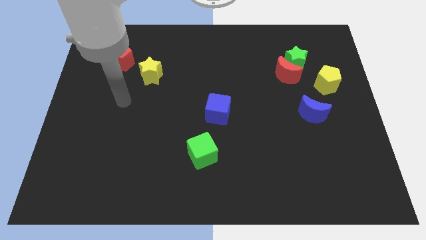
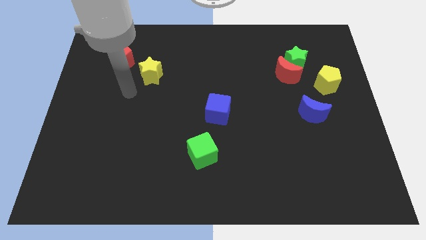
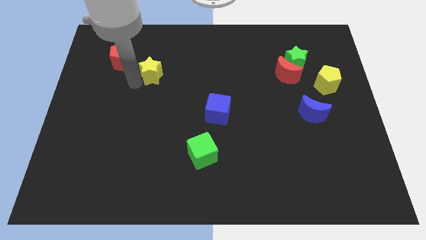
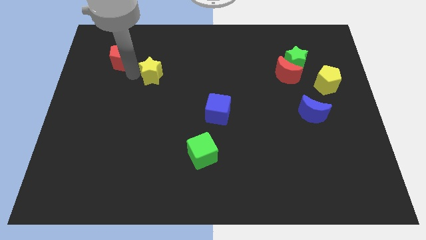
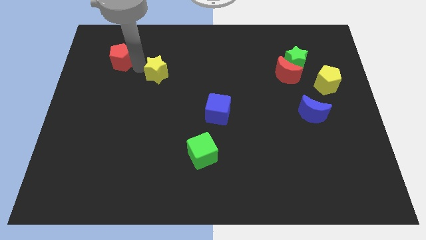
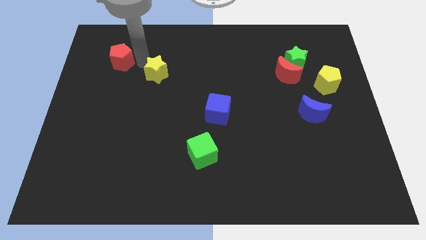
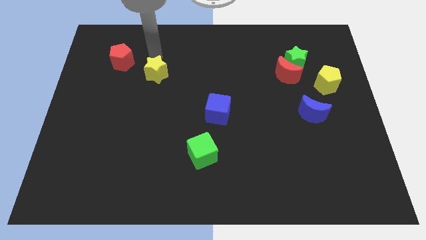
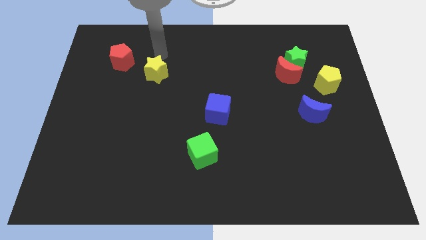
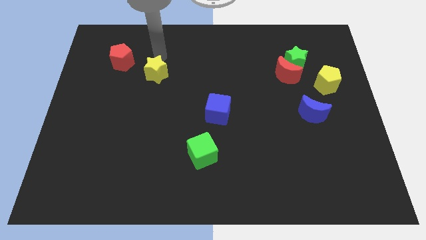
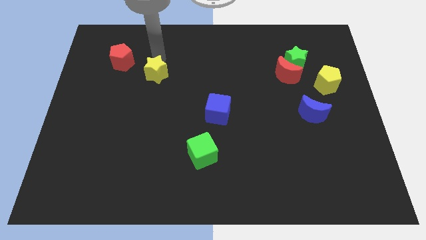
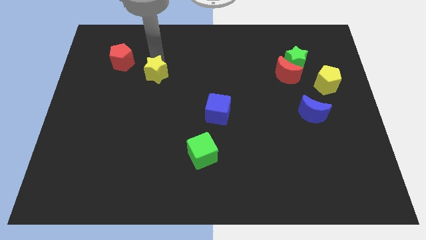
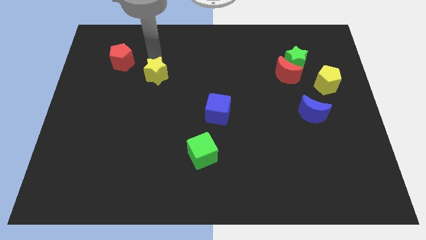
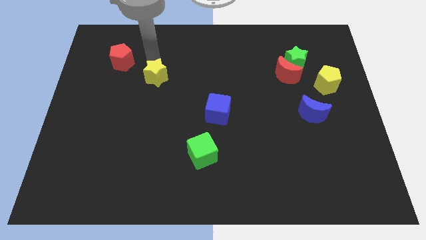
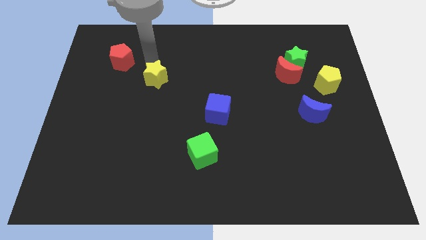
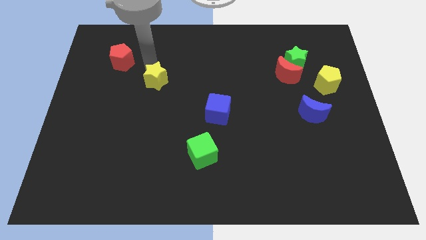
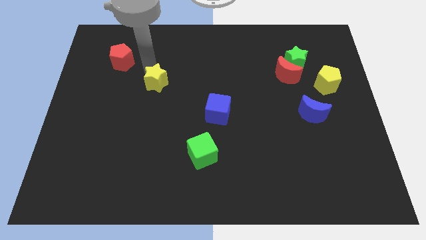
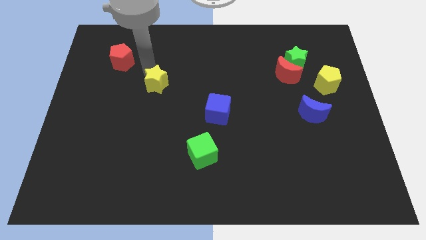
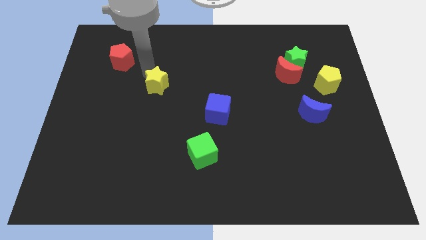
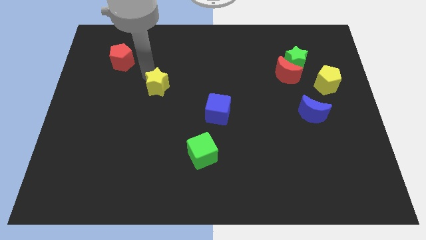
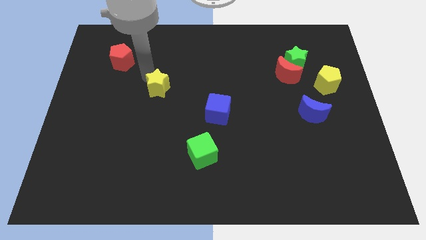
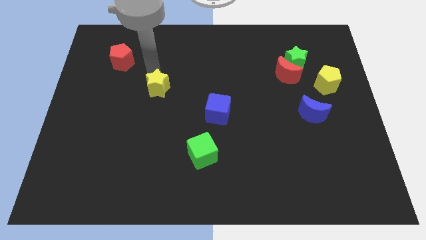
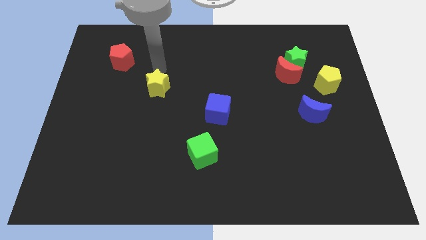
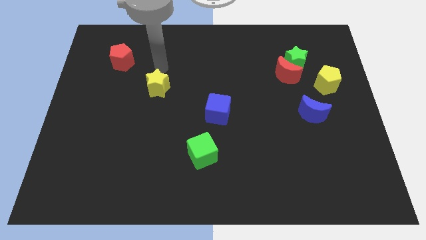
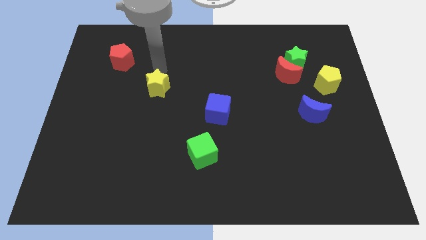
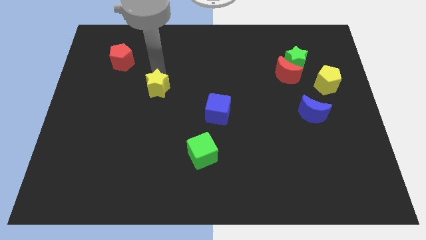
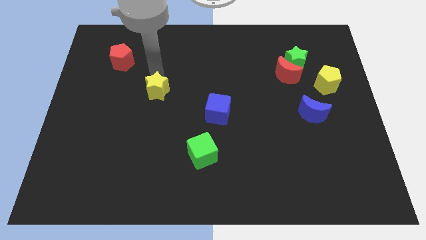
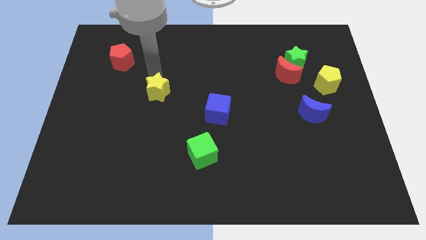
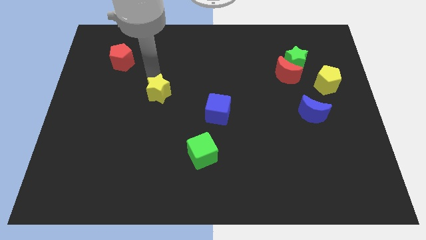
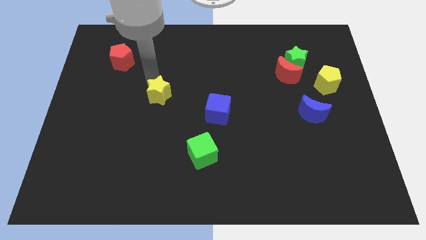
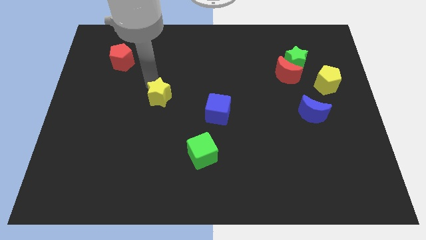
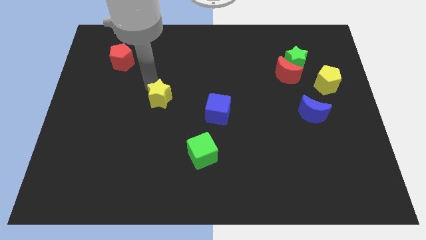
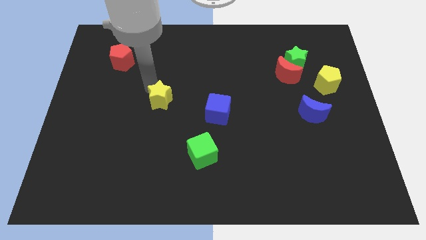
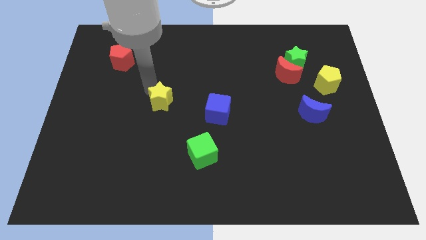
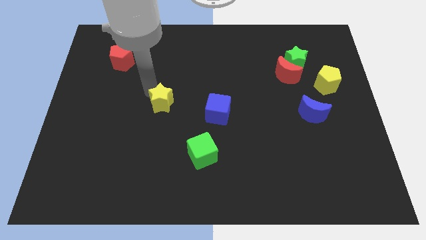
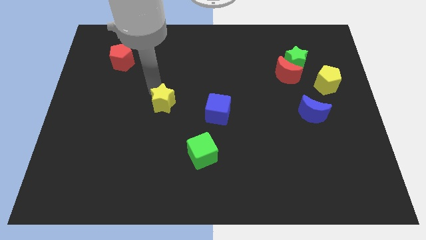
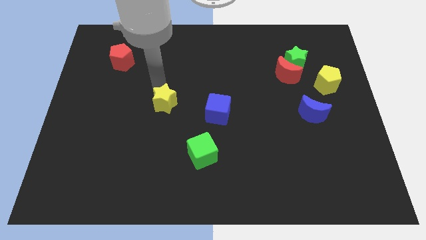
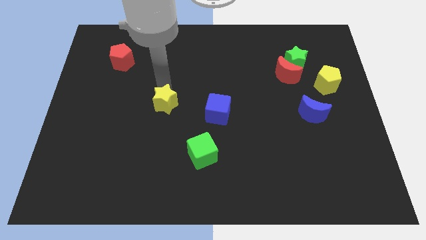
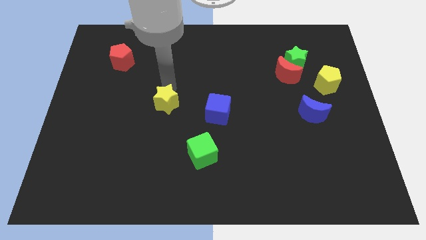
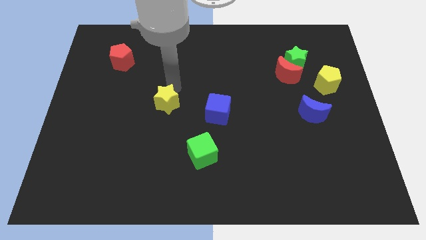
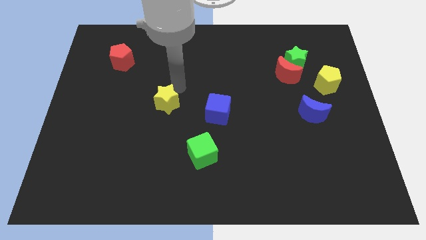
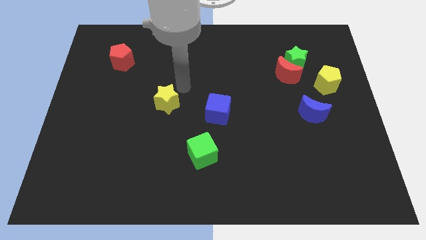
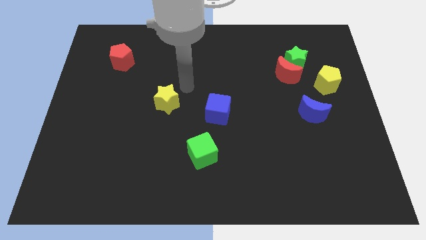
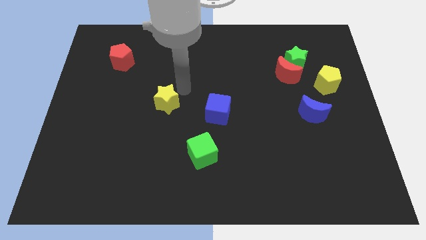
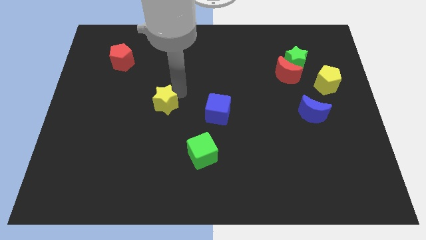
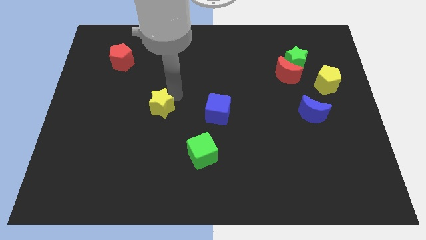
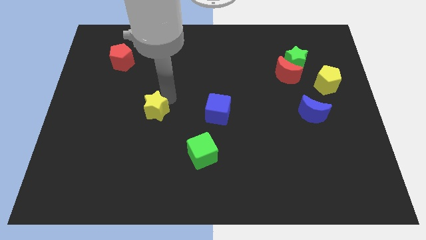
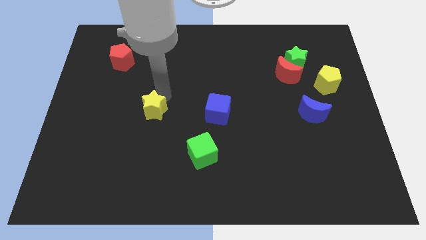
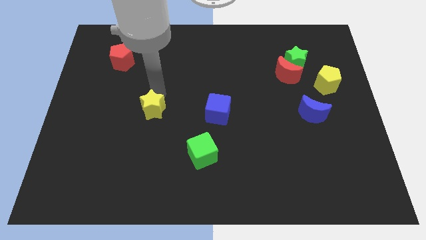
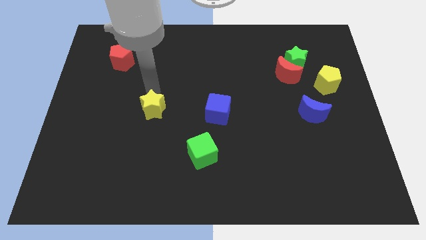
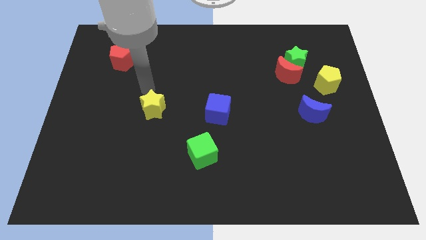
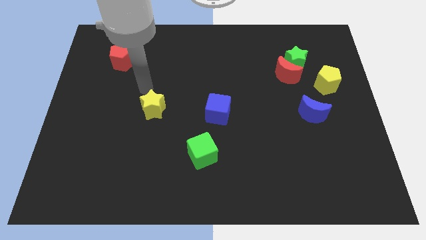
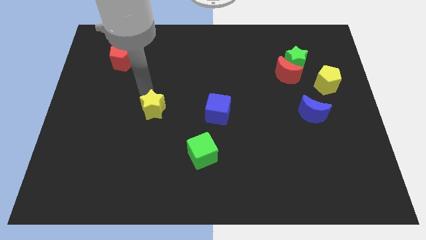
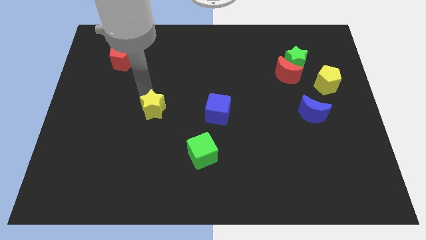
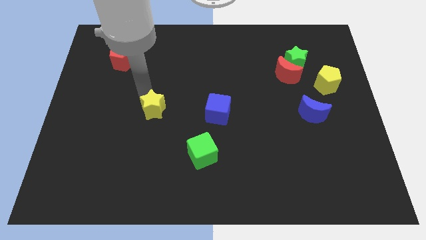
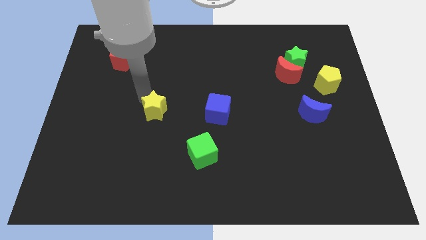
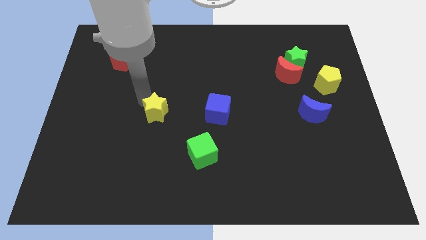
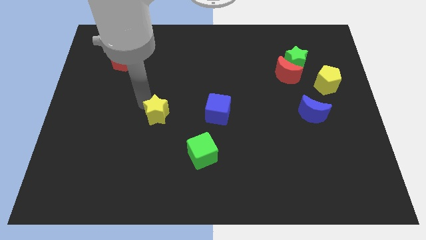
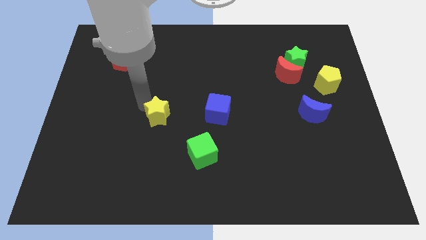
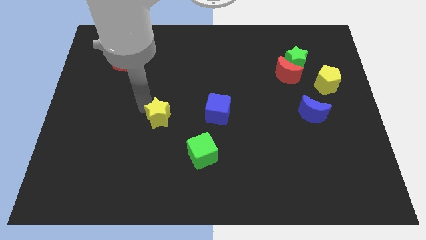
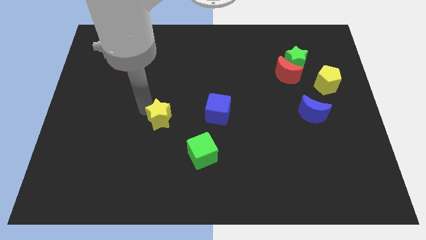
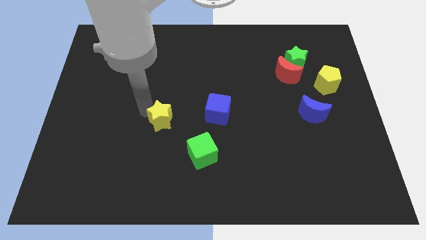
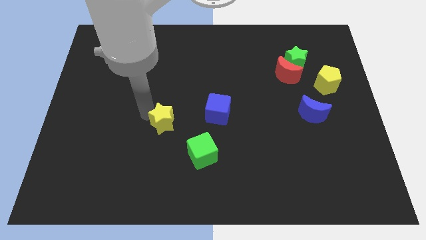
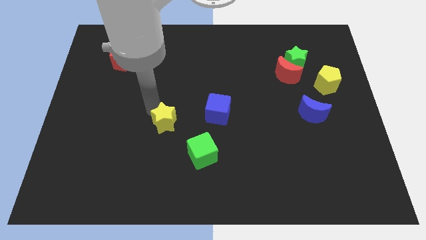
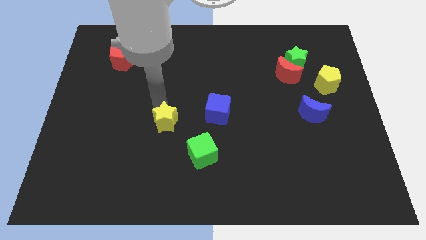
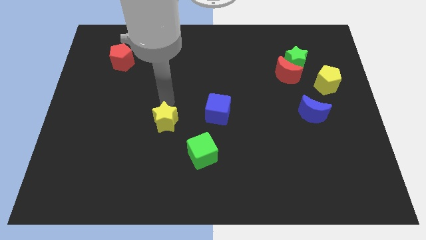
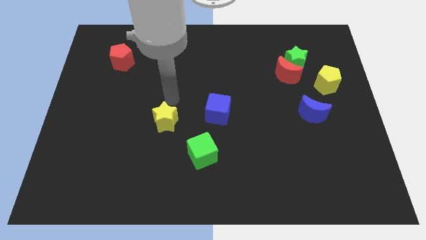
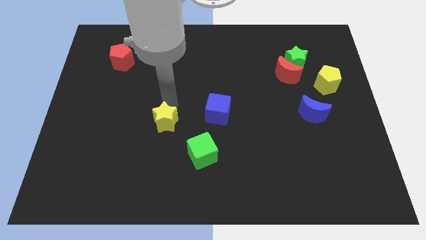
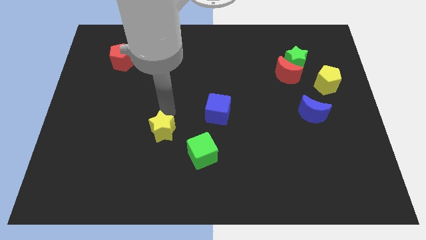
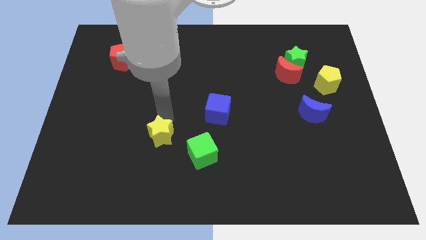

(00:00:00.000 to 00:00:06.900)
push the yellow star just left of the green cube

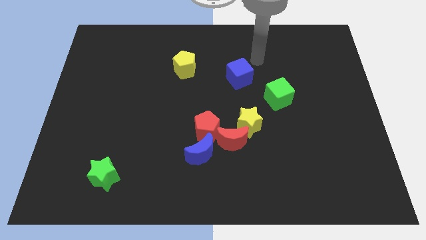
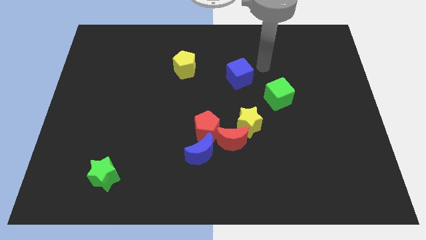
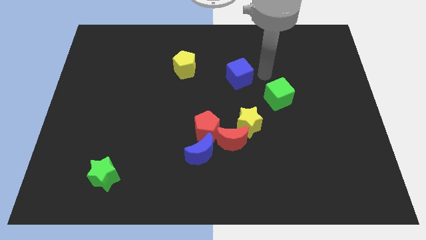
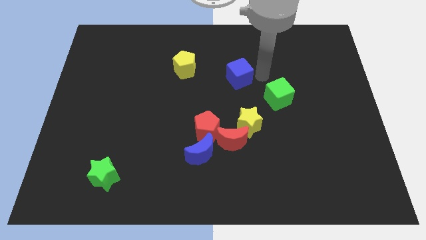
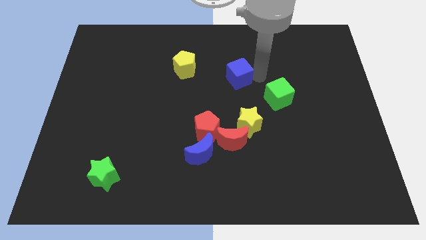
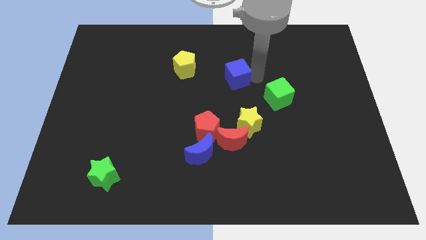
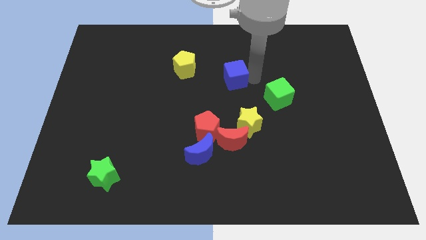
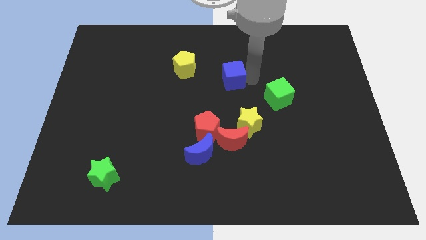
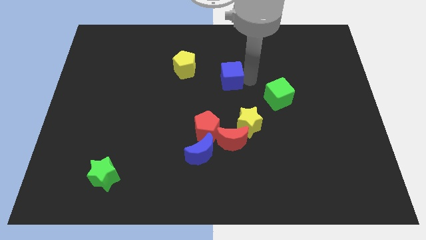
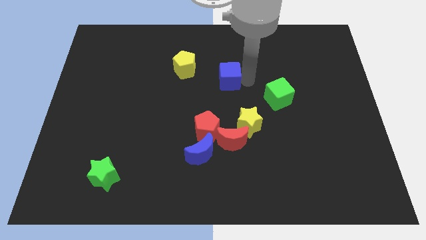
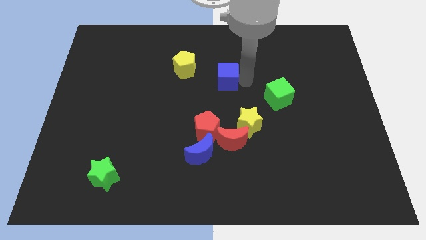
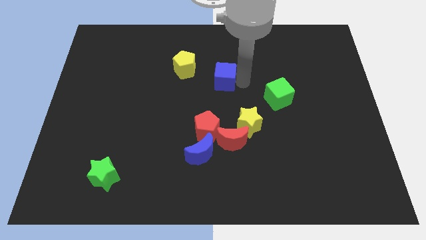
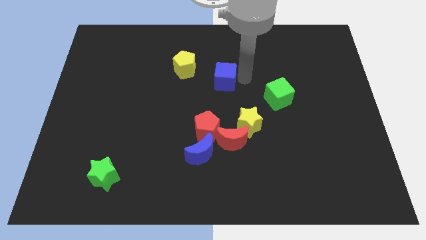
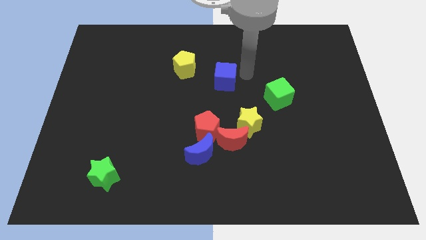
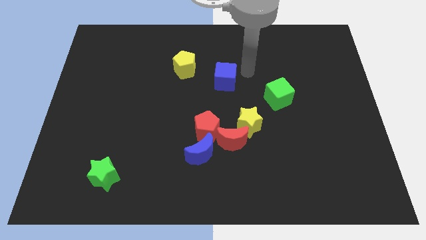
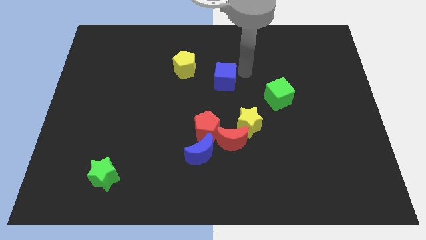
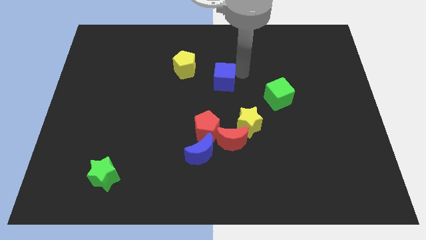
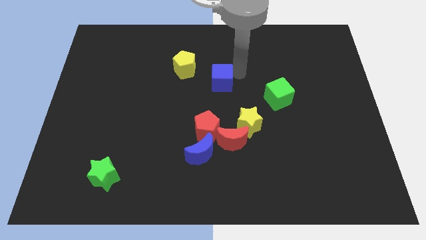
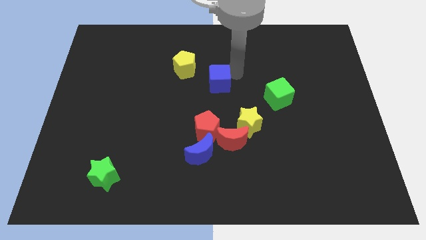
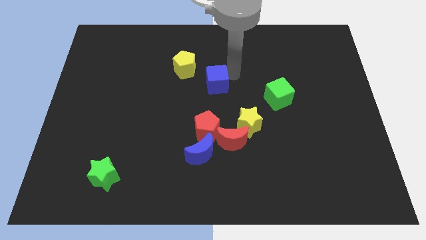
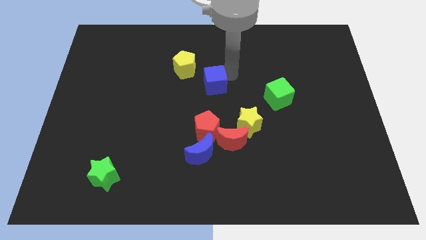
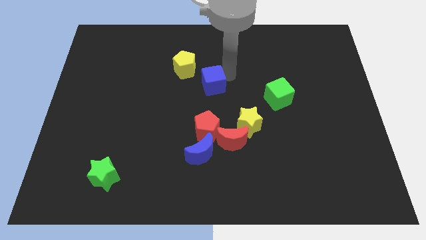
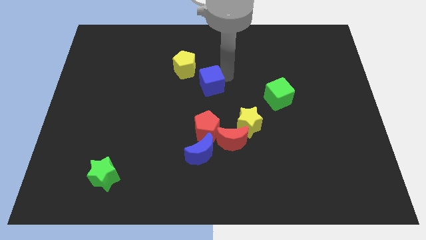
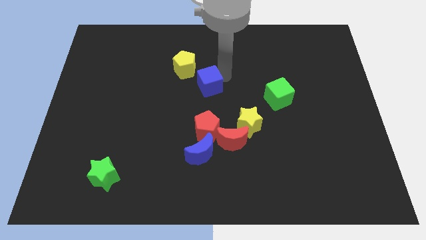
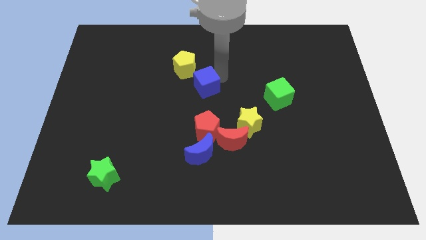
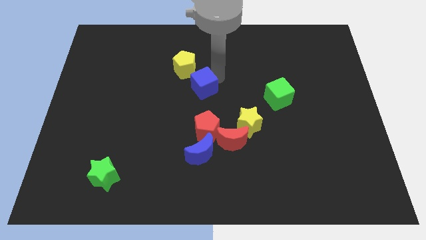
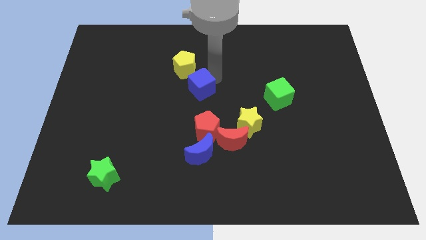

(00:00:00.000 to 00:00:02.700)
slide the blue cube to the bottom of the yellow pentagon
